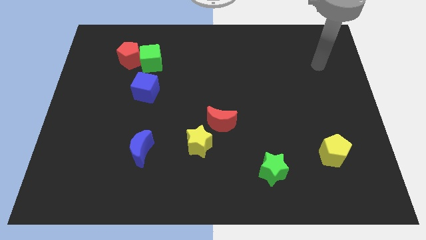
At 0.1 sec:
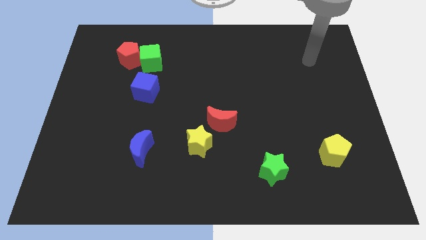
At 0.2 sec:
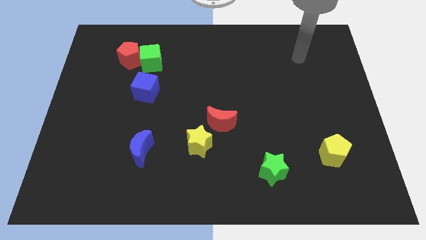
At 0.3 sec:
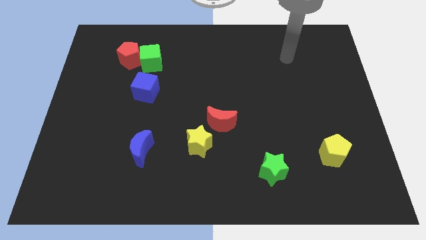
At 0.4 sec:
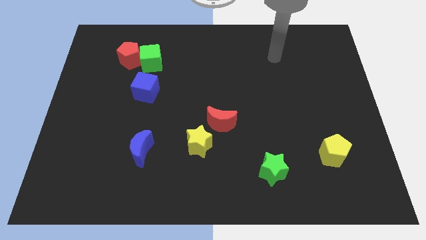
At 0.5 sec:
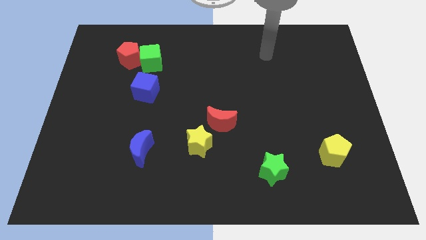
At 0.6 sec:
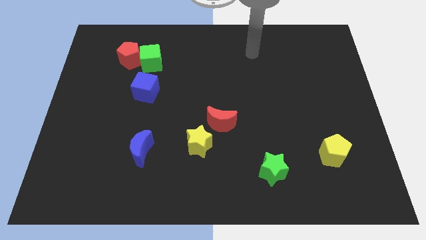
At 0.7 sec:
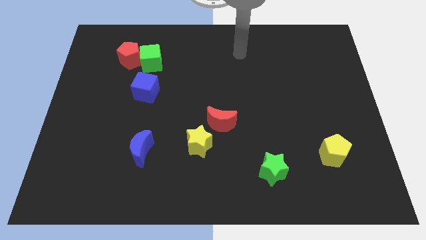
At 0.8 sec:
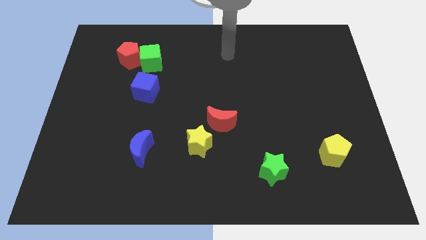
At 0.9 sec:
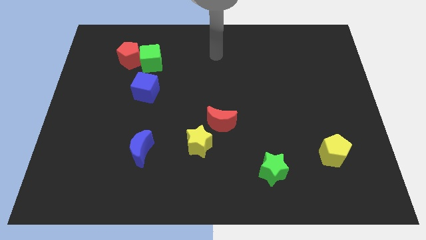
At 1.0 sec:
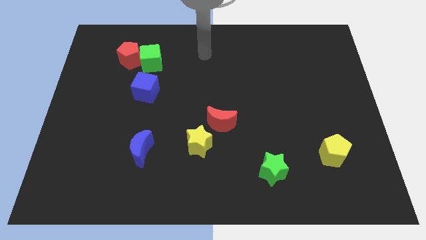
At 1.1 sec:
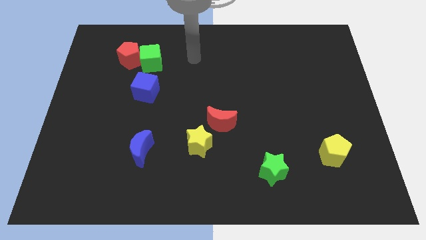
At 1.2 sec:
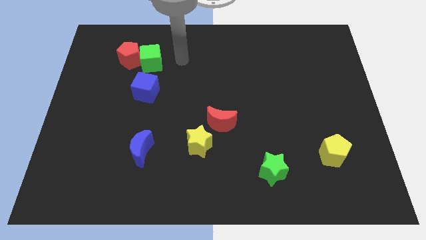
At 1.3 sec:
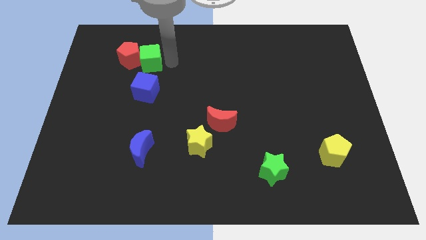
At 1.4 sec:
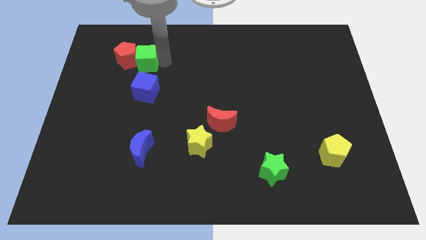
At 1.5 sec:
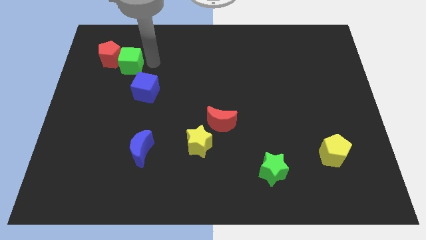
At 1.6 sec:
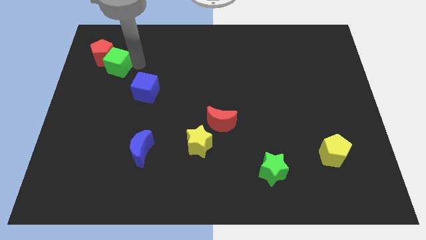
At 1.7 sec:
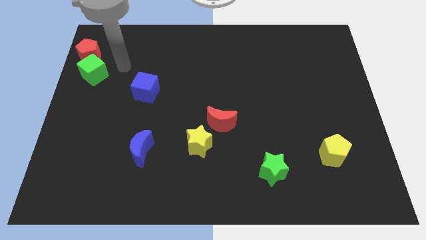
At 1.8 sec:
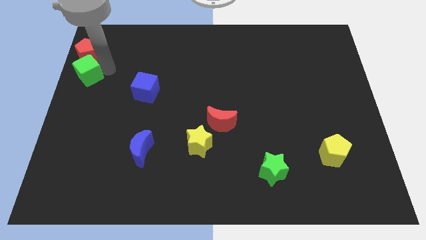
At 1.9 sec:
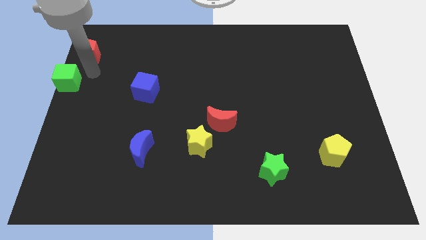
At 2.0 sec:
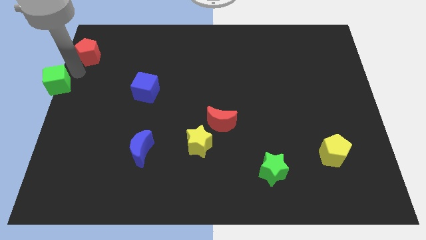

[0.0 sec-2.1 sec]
separate the red pentagon from the green cube

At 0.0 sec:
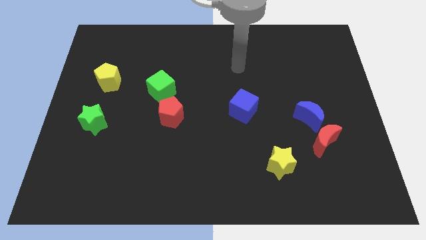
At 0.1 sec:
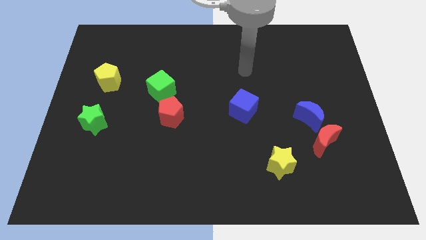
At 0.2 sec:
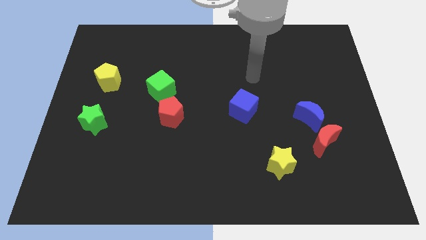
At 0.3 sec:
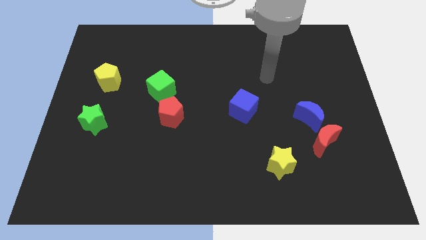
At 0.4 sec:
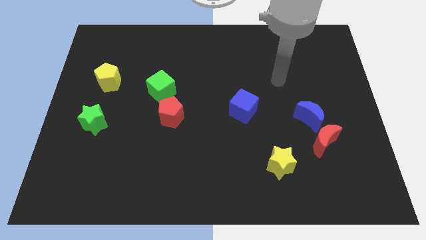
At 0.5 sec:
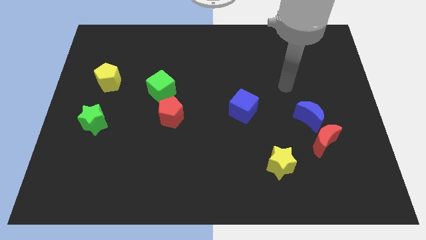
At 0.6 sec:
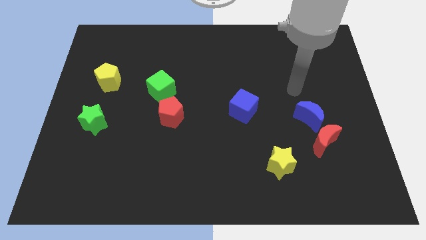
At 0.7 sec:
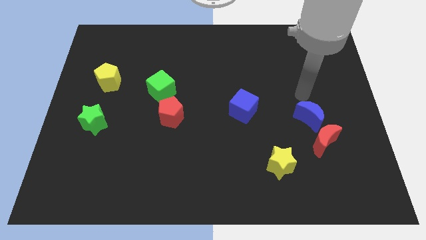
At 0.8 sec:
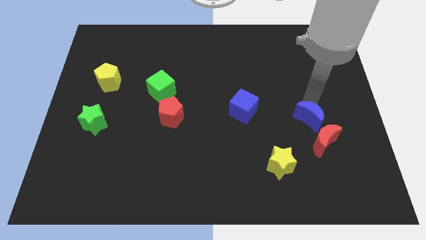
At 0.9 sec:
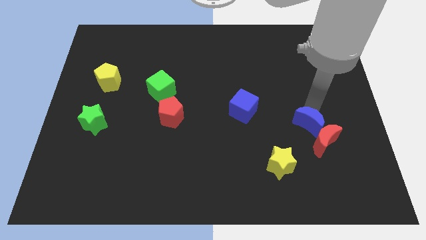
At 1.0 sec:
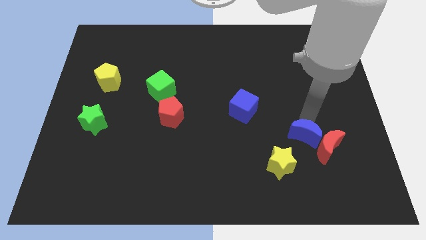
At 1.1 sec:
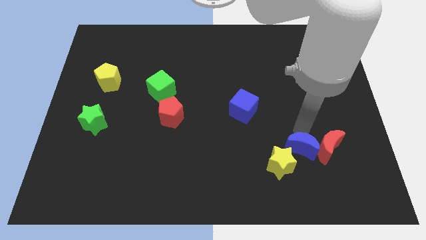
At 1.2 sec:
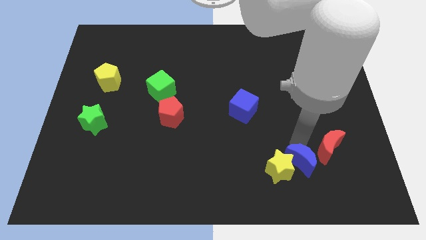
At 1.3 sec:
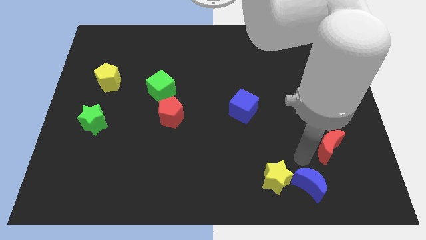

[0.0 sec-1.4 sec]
move the red moon away from the blue moon

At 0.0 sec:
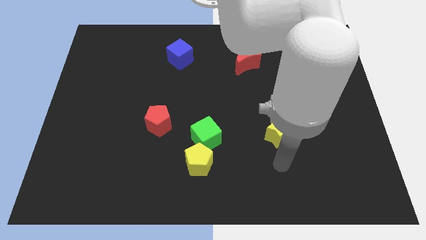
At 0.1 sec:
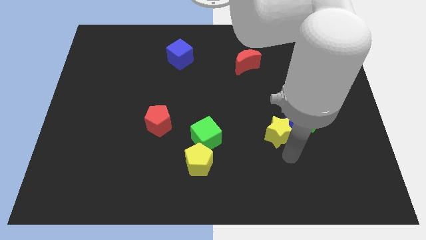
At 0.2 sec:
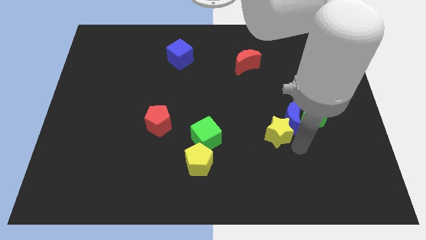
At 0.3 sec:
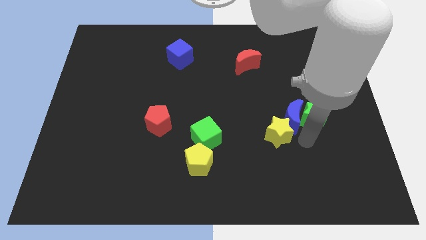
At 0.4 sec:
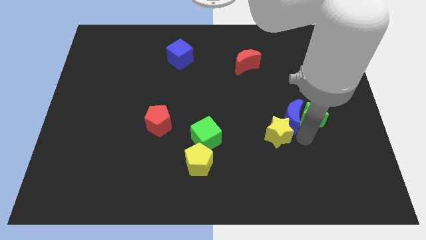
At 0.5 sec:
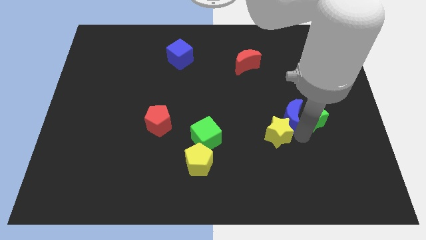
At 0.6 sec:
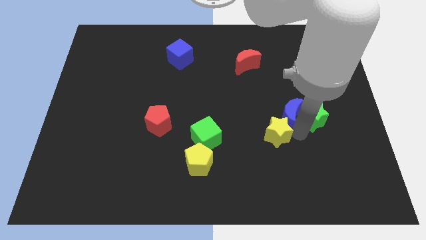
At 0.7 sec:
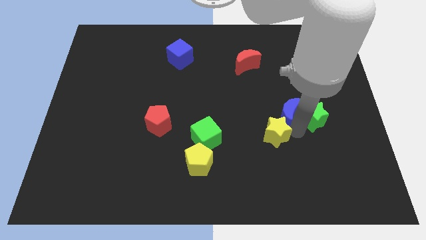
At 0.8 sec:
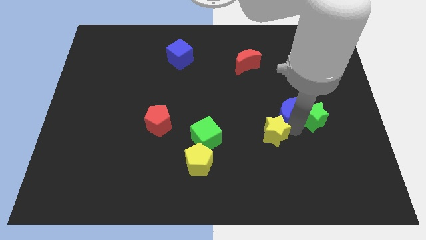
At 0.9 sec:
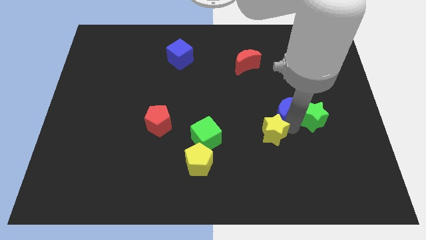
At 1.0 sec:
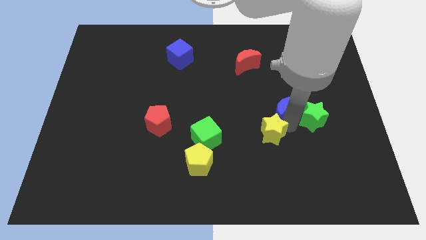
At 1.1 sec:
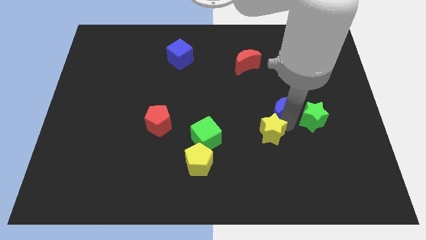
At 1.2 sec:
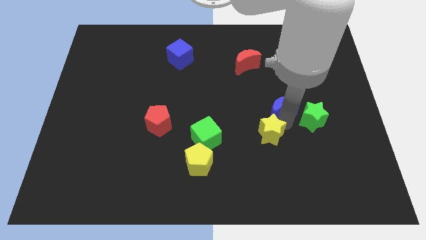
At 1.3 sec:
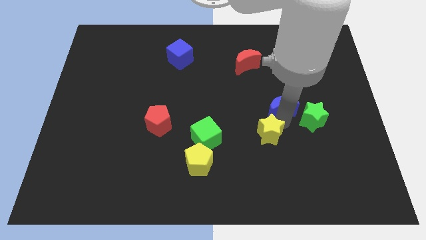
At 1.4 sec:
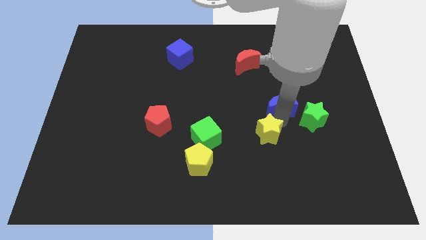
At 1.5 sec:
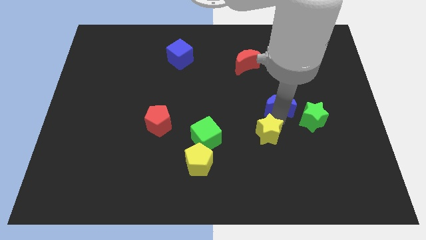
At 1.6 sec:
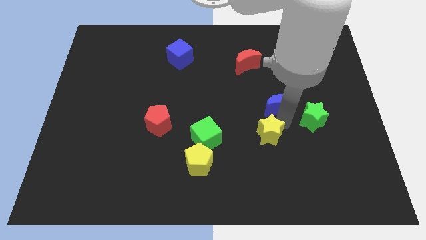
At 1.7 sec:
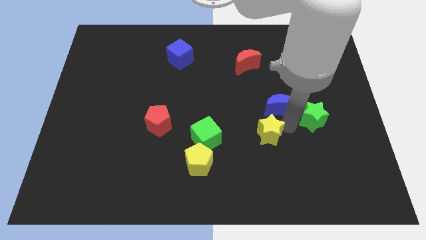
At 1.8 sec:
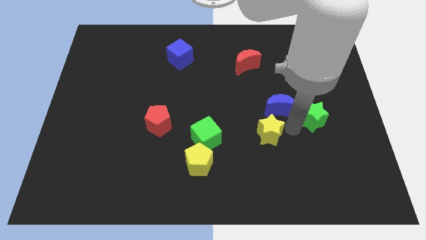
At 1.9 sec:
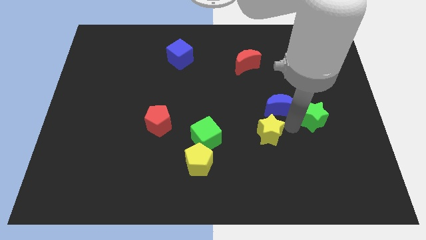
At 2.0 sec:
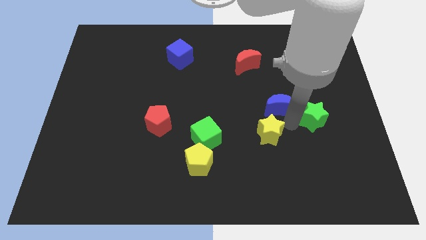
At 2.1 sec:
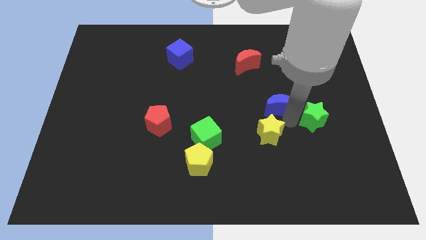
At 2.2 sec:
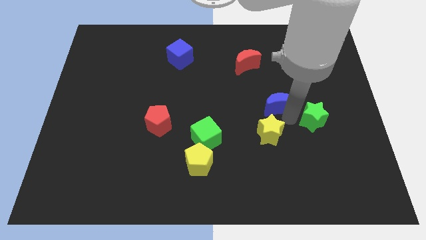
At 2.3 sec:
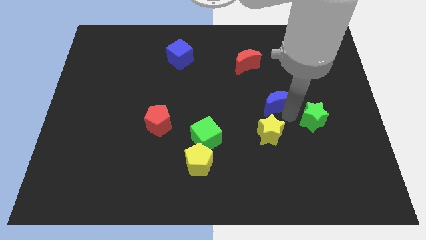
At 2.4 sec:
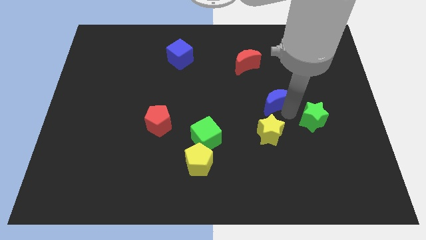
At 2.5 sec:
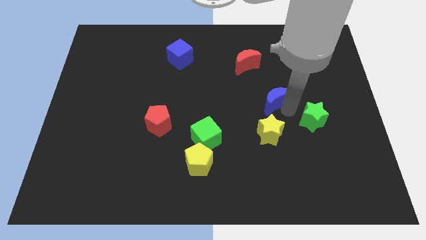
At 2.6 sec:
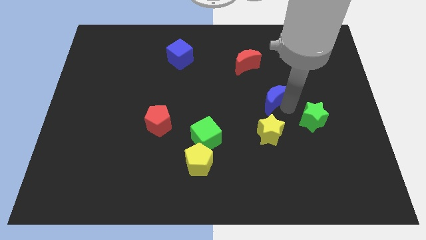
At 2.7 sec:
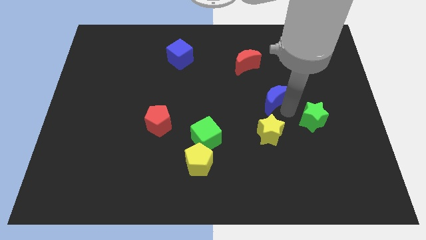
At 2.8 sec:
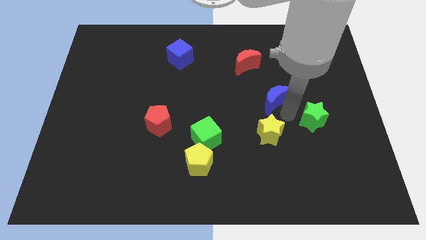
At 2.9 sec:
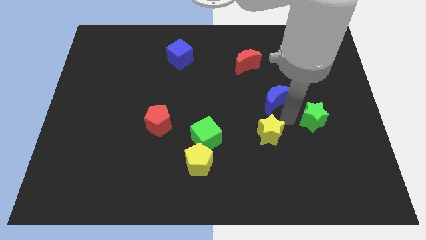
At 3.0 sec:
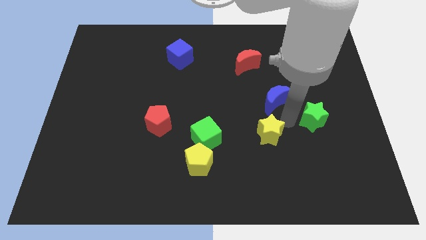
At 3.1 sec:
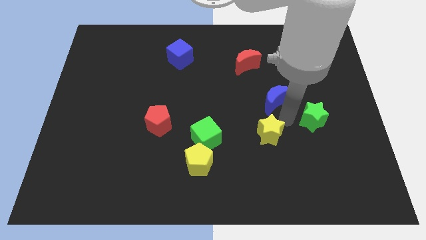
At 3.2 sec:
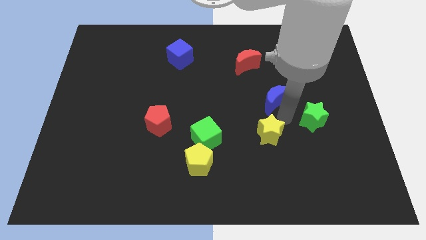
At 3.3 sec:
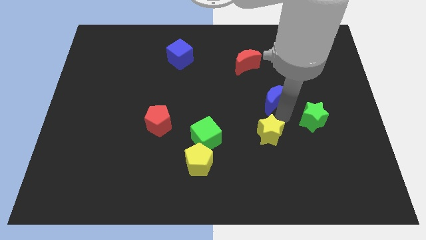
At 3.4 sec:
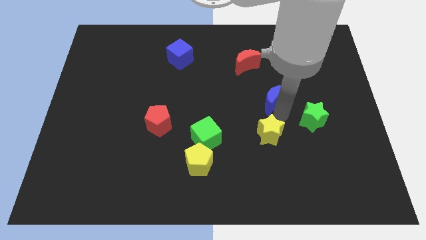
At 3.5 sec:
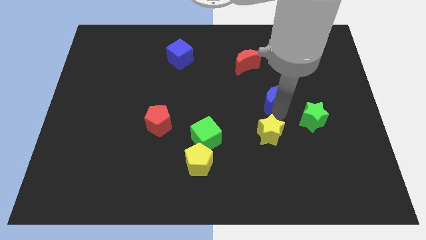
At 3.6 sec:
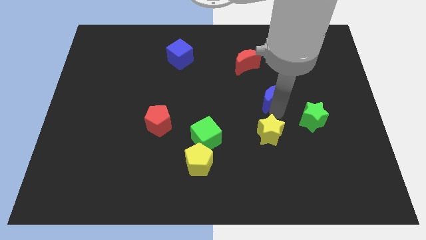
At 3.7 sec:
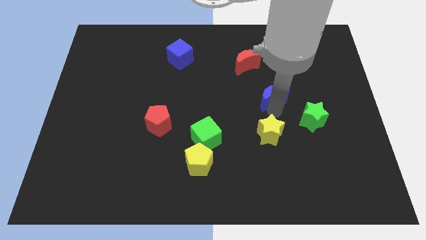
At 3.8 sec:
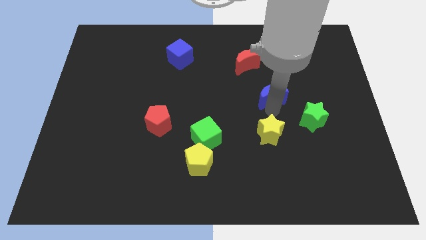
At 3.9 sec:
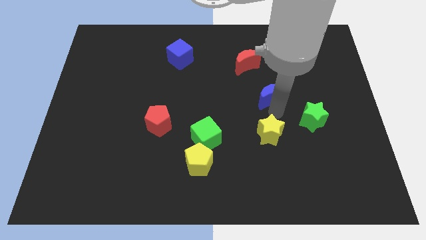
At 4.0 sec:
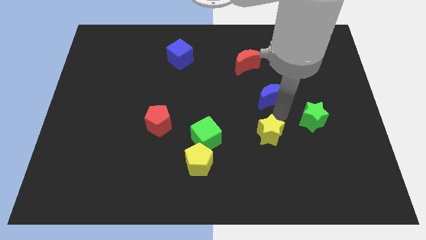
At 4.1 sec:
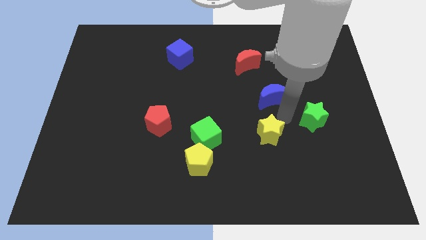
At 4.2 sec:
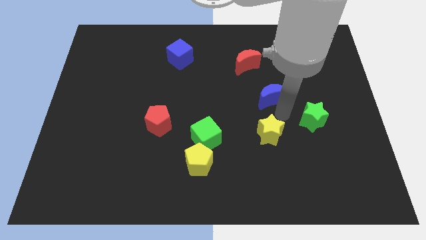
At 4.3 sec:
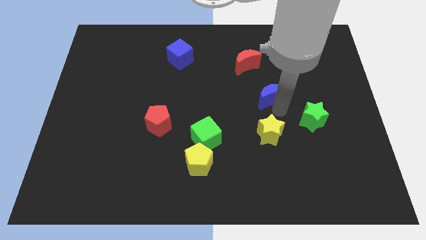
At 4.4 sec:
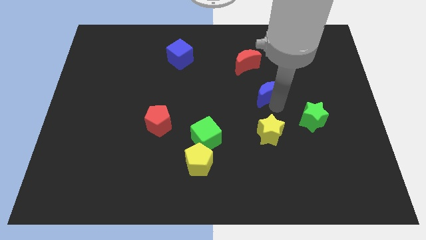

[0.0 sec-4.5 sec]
pull the blue moon apart from the green star and yellow star

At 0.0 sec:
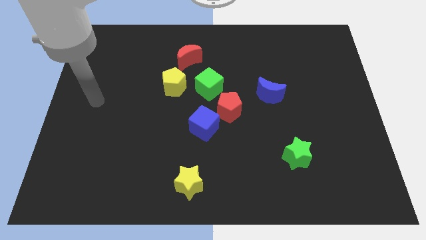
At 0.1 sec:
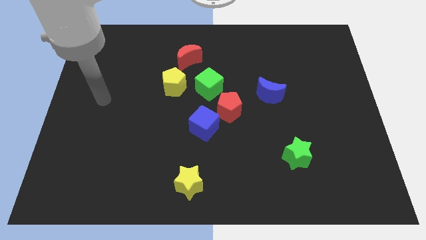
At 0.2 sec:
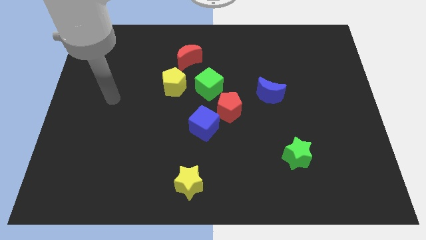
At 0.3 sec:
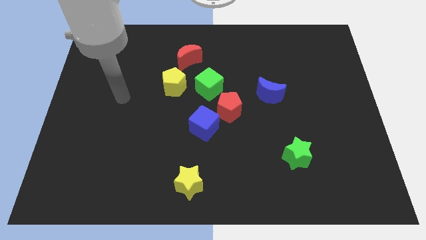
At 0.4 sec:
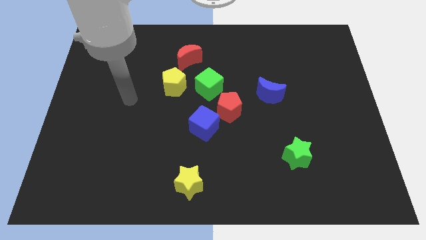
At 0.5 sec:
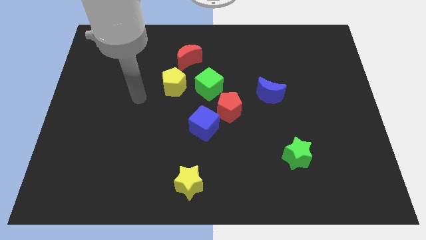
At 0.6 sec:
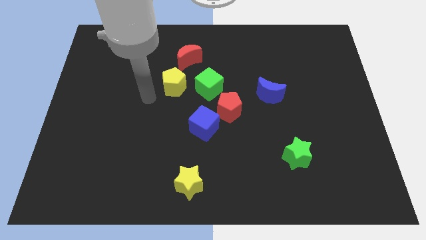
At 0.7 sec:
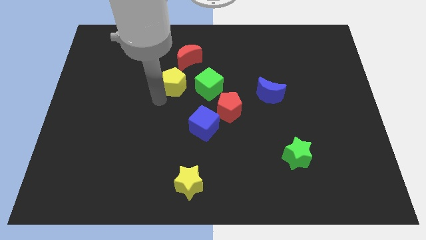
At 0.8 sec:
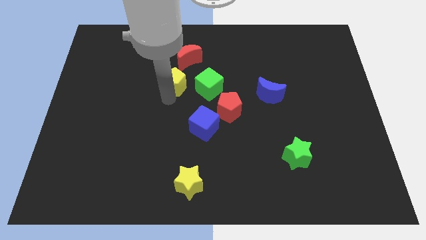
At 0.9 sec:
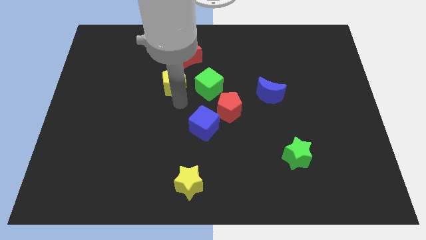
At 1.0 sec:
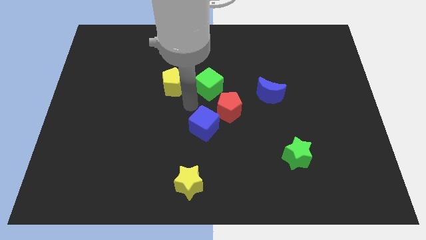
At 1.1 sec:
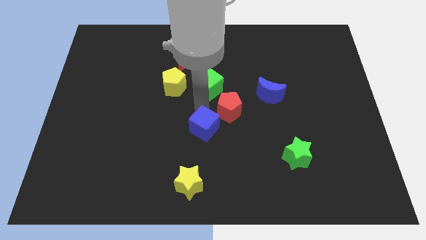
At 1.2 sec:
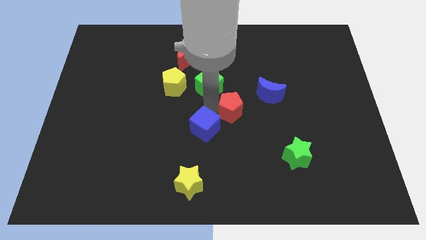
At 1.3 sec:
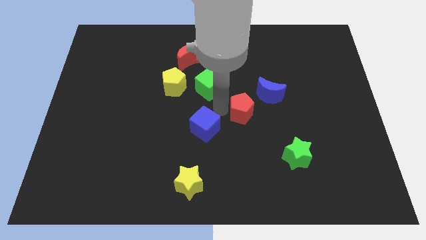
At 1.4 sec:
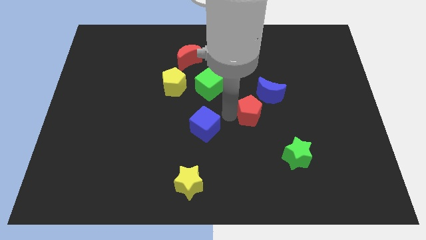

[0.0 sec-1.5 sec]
separate the blue cube from the red pentagon
